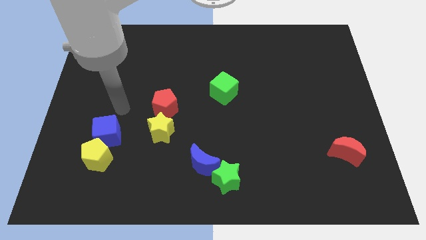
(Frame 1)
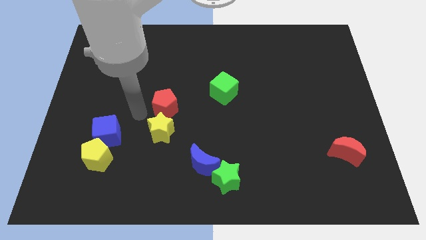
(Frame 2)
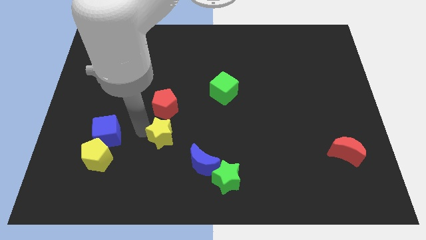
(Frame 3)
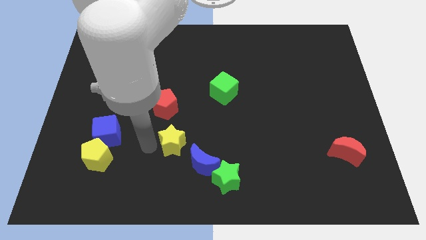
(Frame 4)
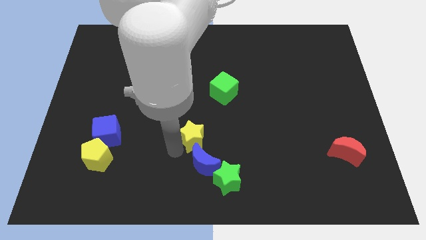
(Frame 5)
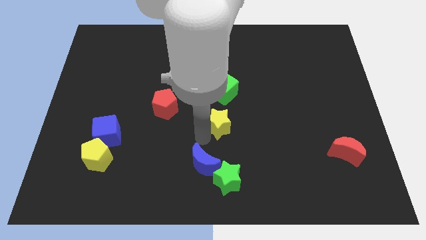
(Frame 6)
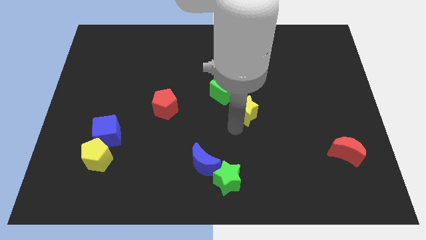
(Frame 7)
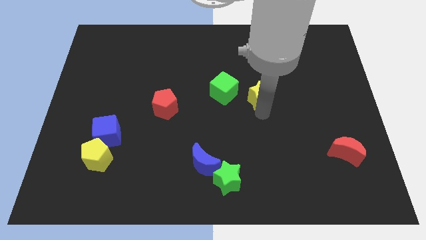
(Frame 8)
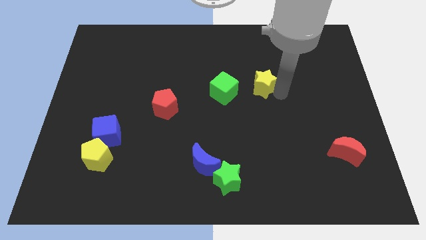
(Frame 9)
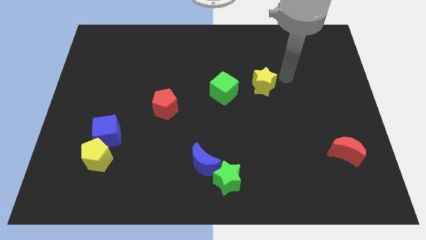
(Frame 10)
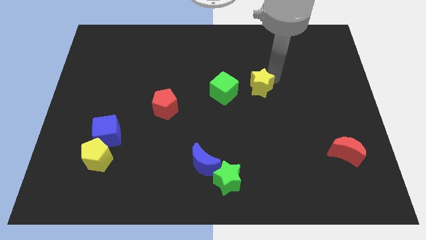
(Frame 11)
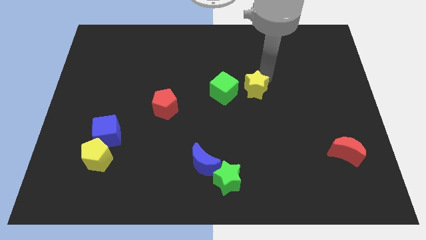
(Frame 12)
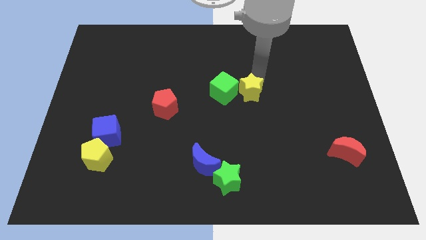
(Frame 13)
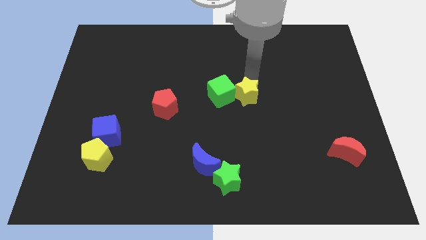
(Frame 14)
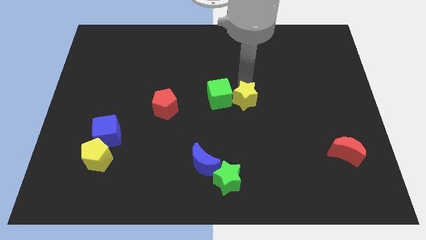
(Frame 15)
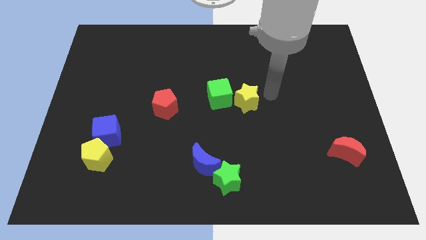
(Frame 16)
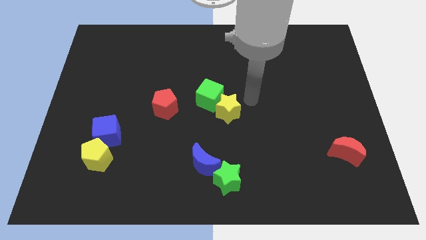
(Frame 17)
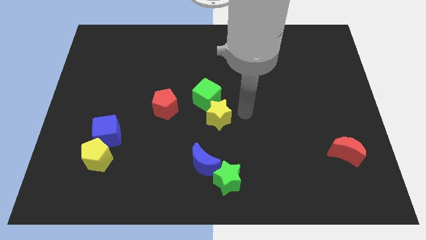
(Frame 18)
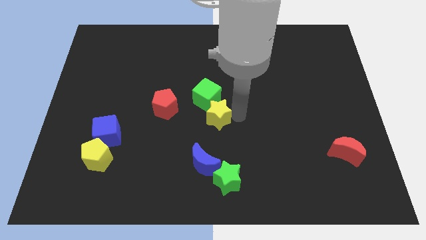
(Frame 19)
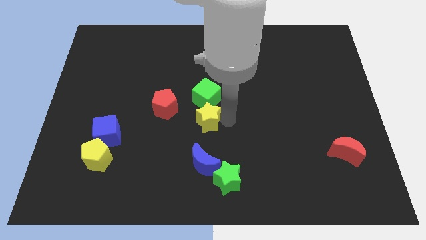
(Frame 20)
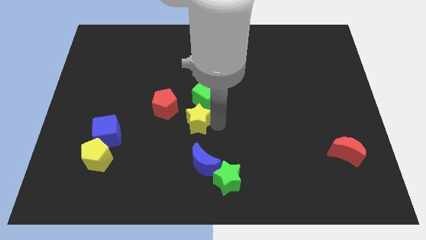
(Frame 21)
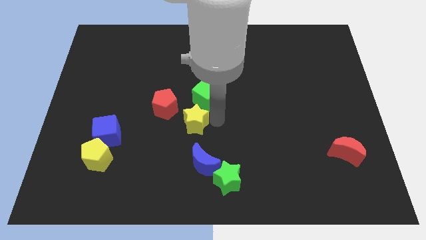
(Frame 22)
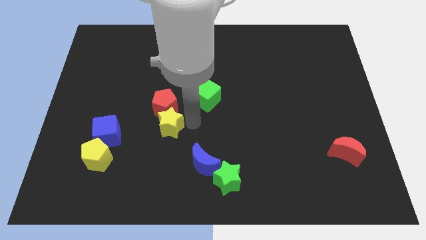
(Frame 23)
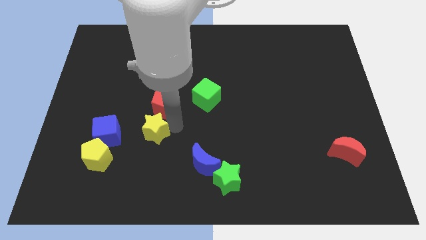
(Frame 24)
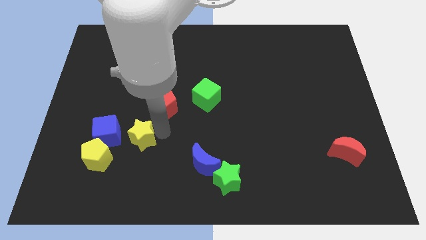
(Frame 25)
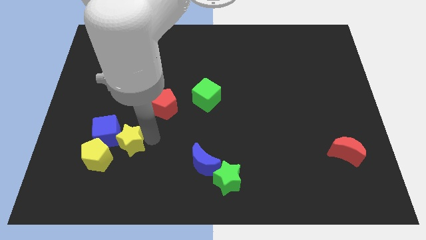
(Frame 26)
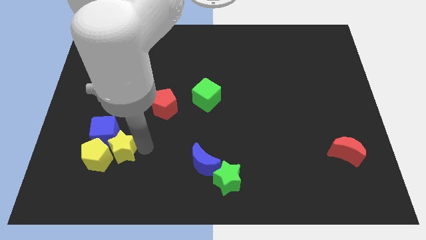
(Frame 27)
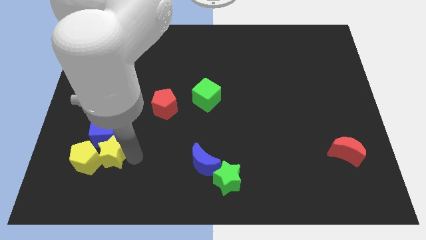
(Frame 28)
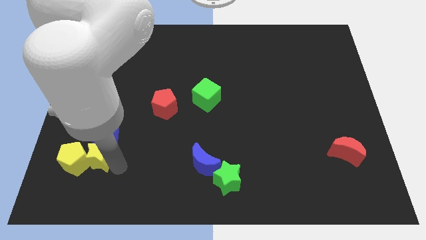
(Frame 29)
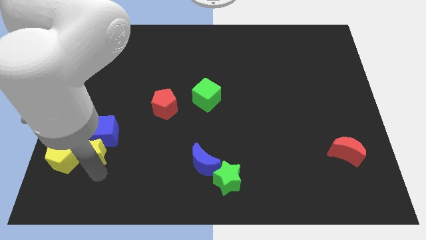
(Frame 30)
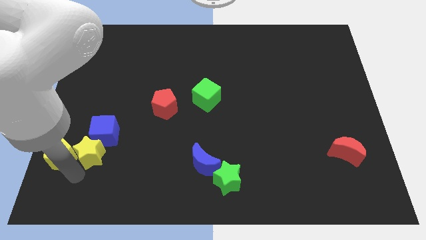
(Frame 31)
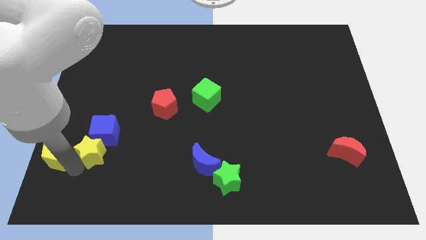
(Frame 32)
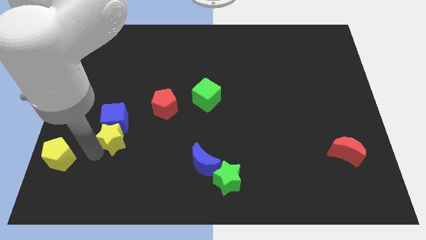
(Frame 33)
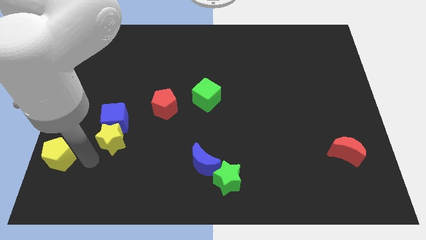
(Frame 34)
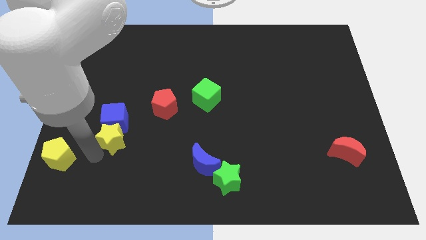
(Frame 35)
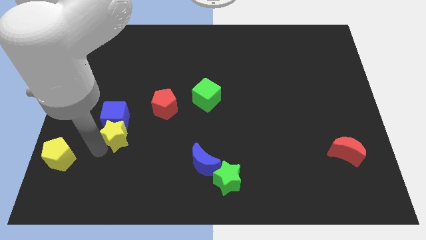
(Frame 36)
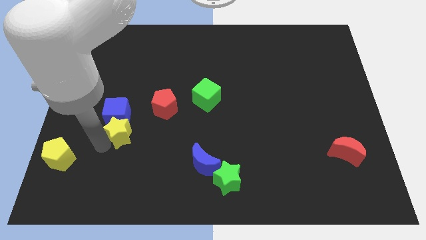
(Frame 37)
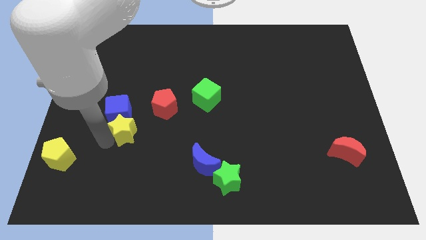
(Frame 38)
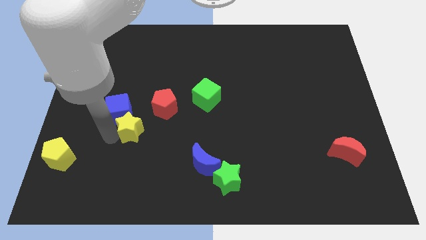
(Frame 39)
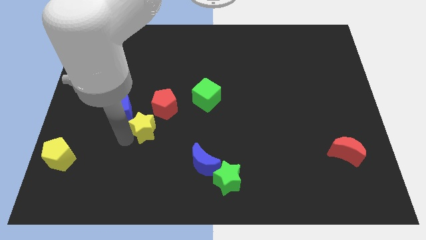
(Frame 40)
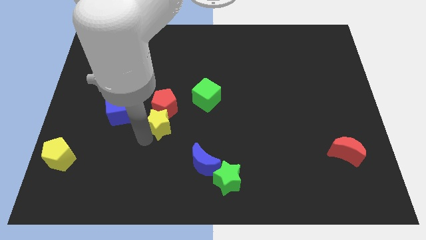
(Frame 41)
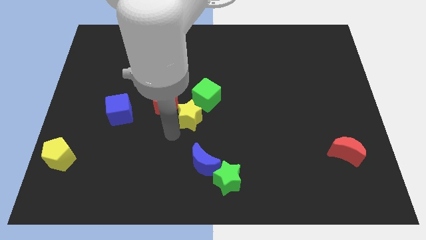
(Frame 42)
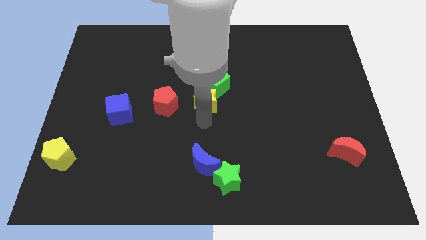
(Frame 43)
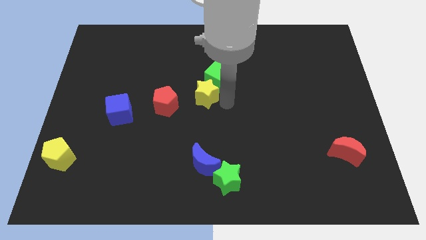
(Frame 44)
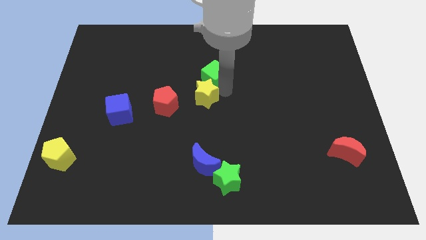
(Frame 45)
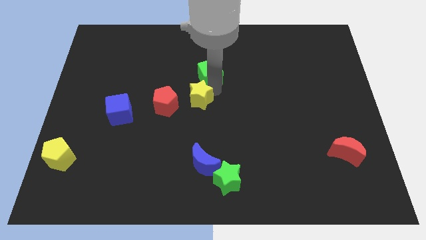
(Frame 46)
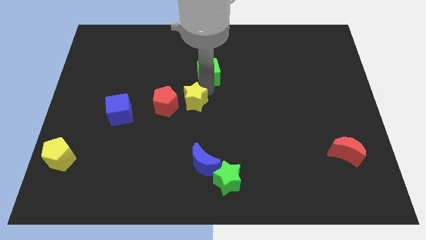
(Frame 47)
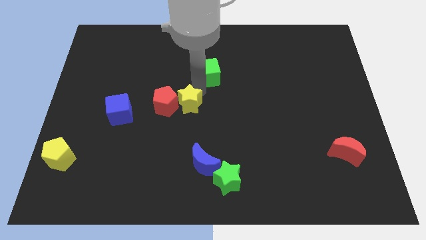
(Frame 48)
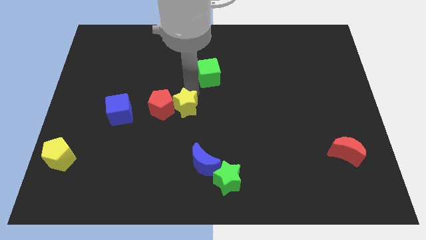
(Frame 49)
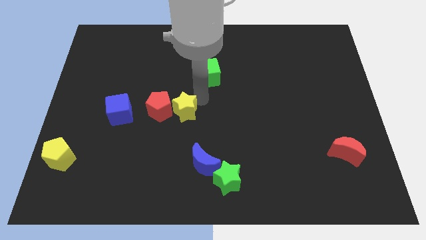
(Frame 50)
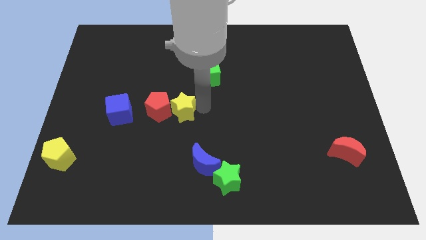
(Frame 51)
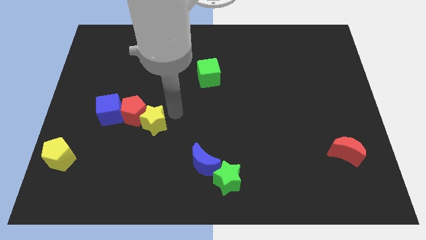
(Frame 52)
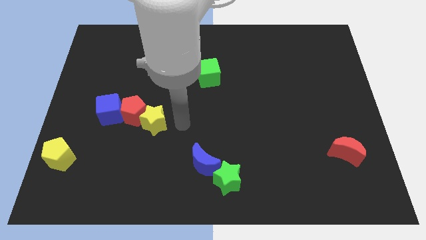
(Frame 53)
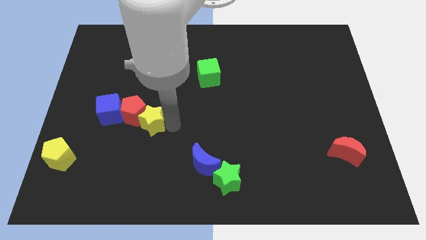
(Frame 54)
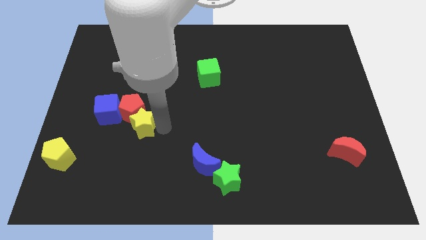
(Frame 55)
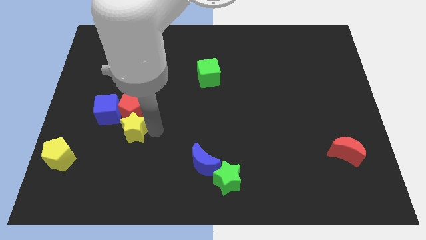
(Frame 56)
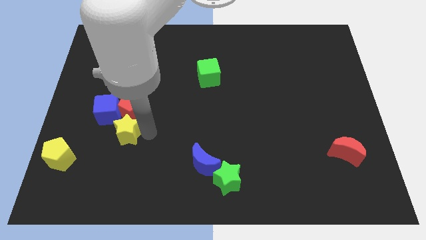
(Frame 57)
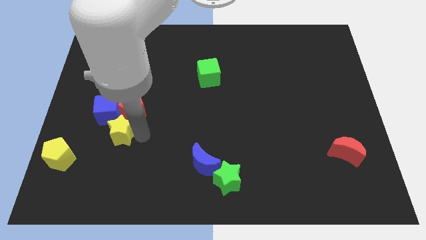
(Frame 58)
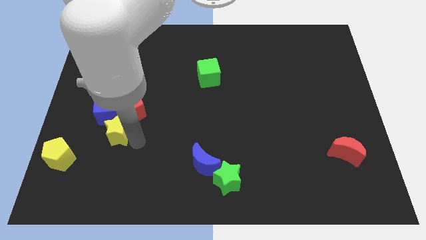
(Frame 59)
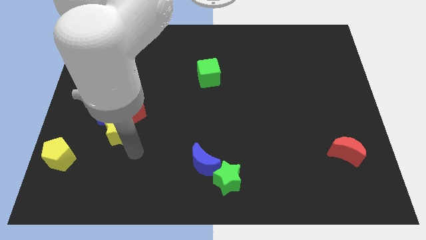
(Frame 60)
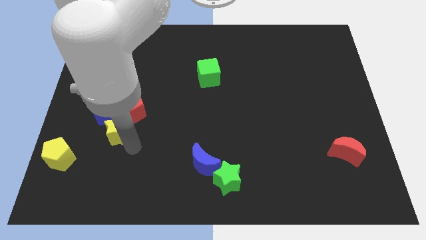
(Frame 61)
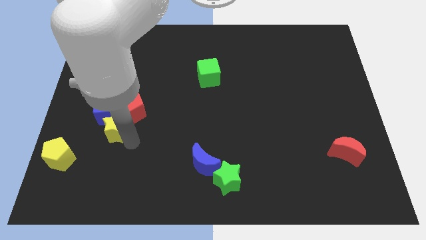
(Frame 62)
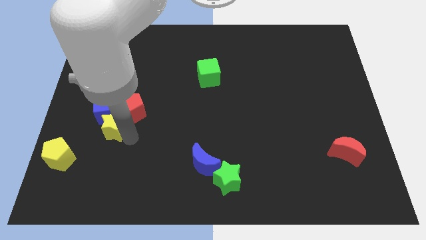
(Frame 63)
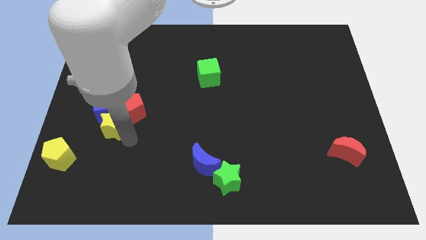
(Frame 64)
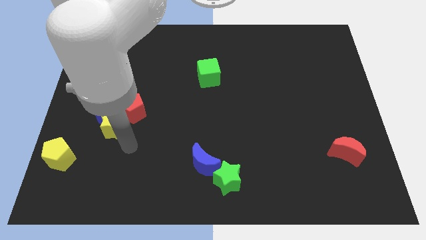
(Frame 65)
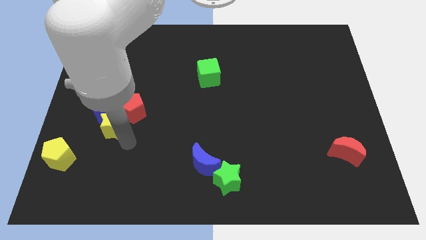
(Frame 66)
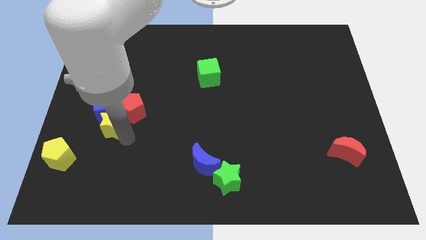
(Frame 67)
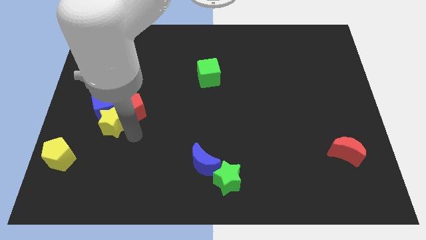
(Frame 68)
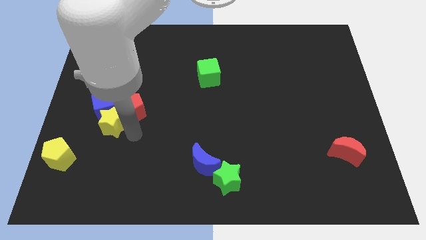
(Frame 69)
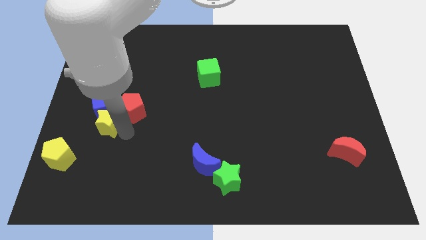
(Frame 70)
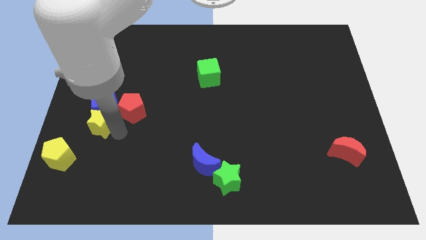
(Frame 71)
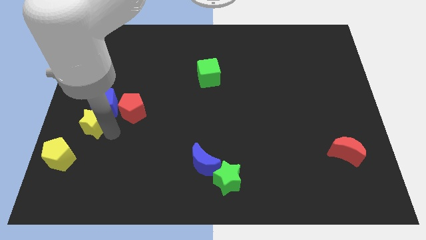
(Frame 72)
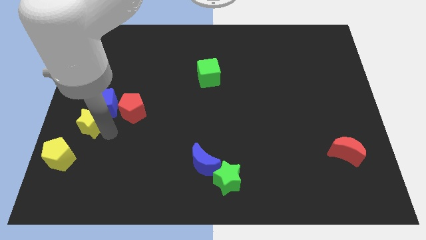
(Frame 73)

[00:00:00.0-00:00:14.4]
push the yellow star to the center left
